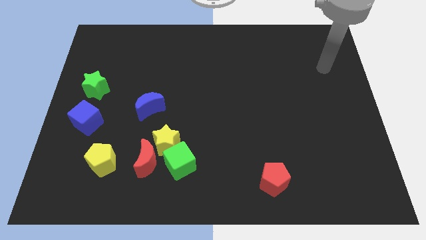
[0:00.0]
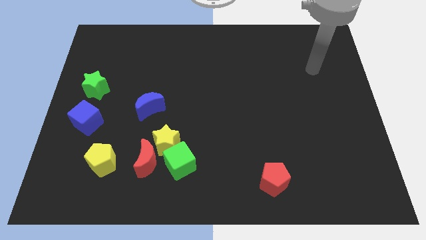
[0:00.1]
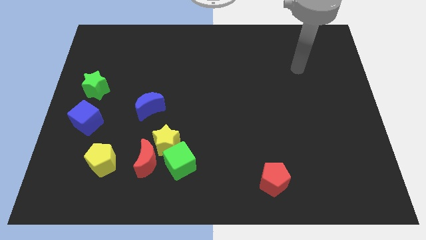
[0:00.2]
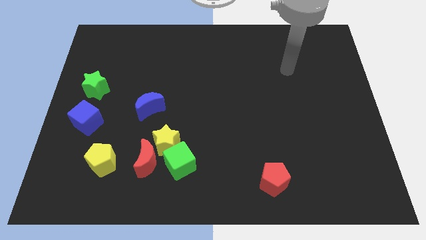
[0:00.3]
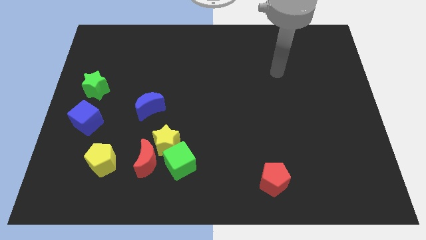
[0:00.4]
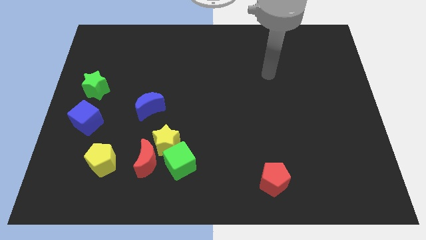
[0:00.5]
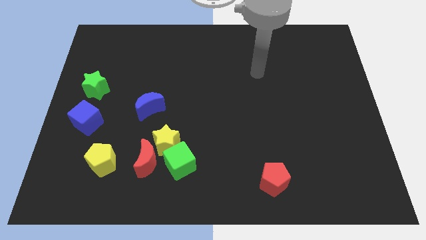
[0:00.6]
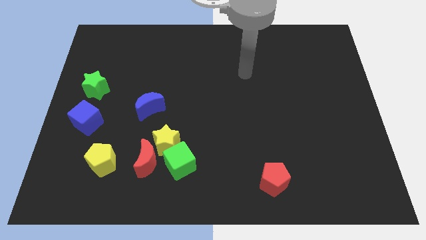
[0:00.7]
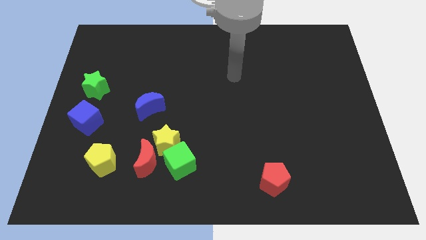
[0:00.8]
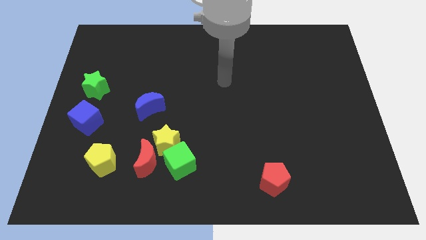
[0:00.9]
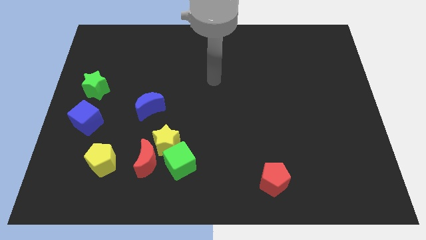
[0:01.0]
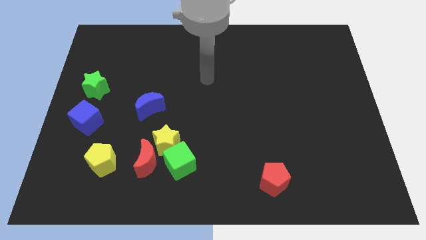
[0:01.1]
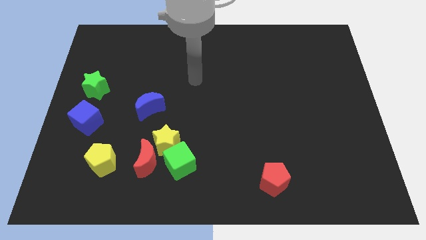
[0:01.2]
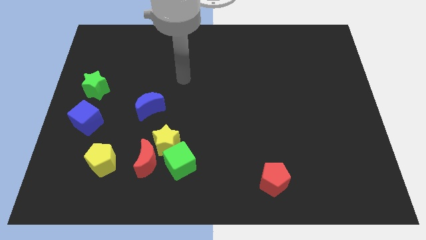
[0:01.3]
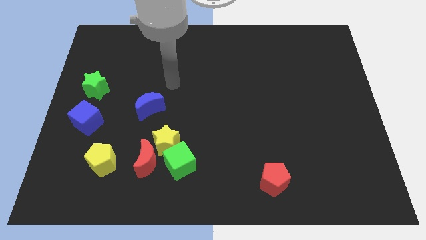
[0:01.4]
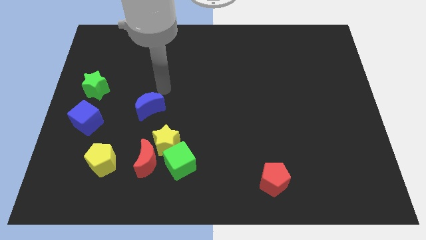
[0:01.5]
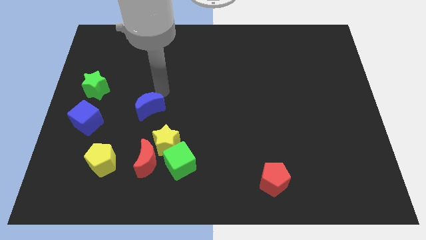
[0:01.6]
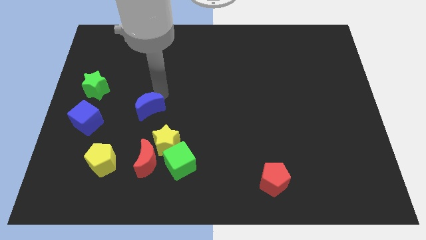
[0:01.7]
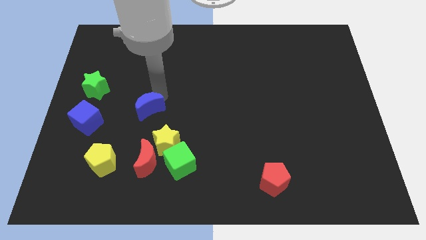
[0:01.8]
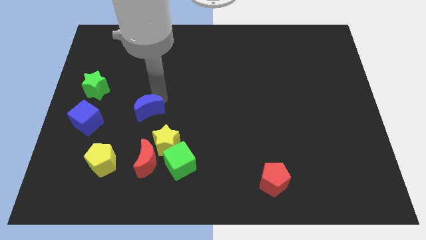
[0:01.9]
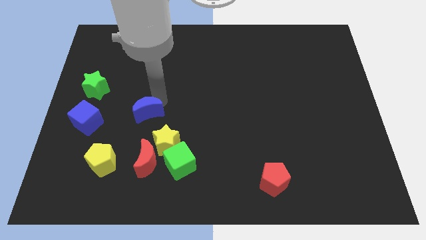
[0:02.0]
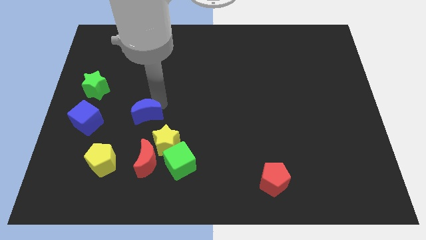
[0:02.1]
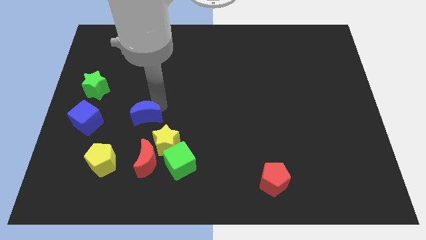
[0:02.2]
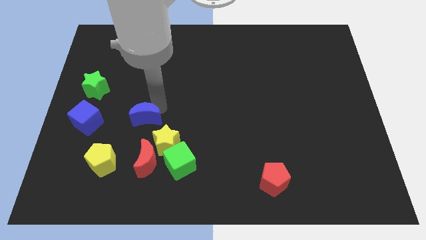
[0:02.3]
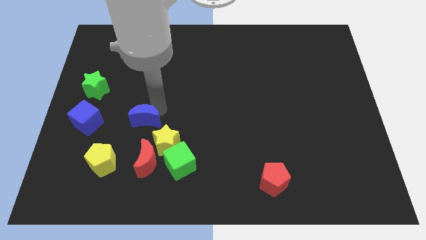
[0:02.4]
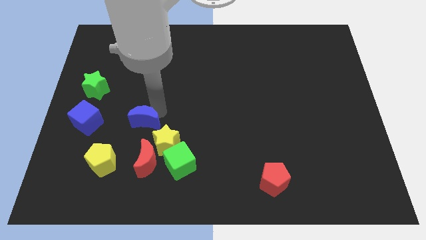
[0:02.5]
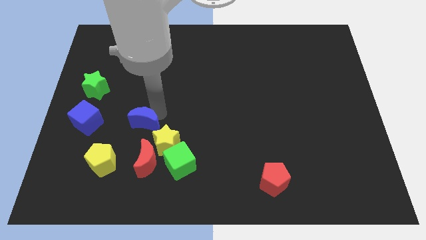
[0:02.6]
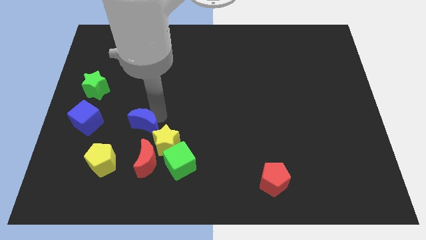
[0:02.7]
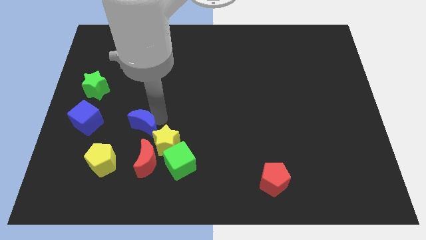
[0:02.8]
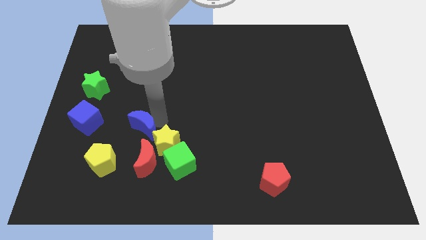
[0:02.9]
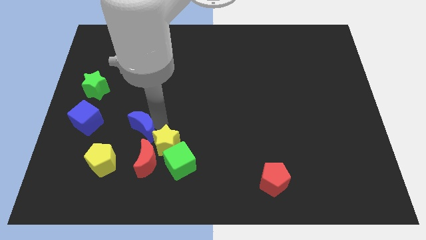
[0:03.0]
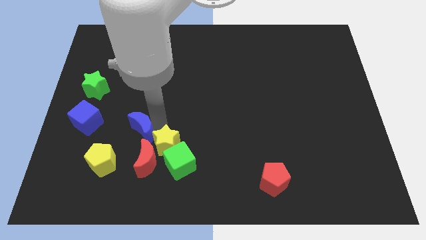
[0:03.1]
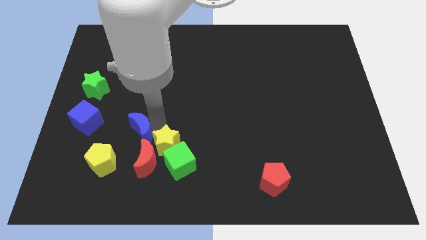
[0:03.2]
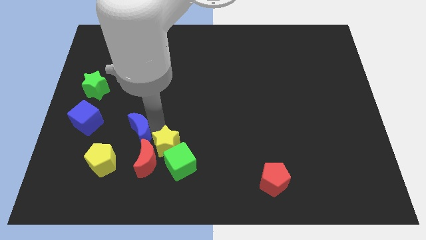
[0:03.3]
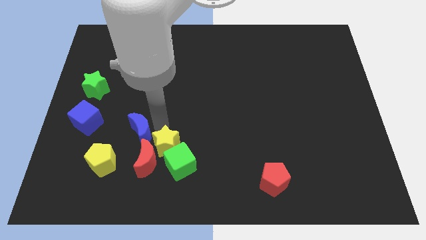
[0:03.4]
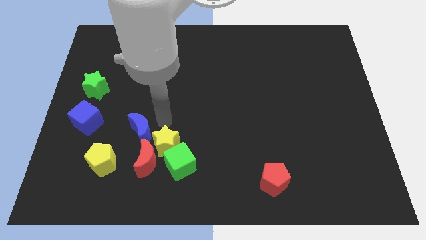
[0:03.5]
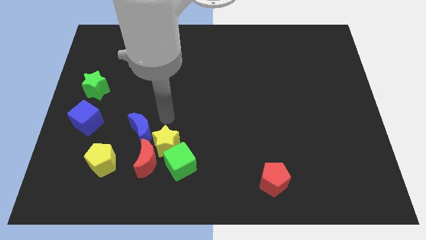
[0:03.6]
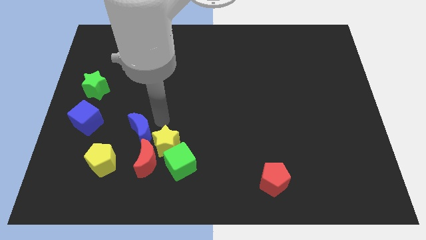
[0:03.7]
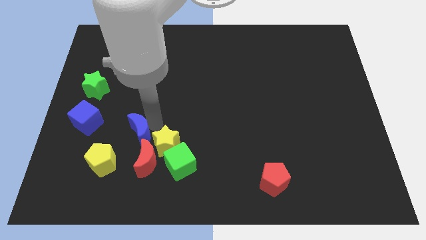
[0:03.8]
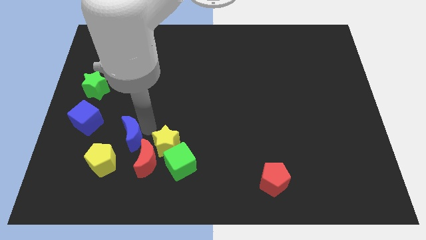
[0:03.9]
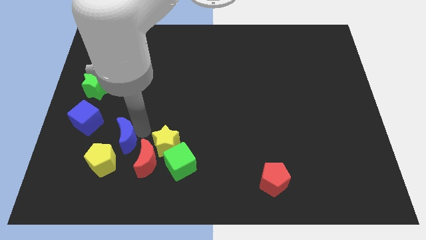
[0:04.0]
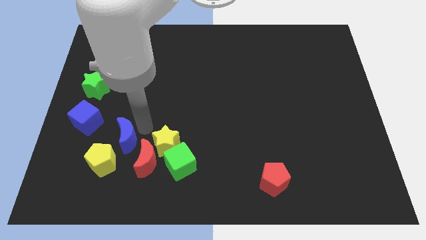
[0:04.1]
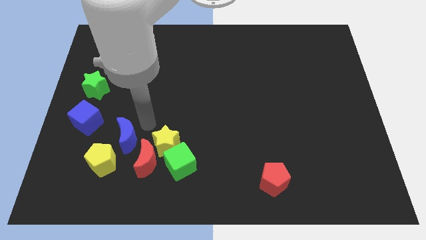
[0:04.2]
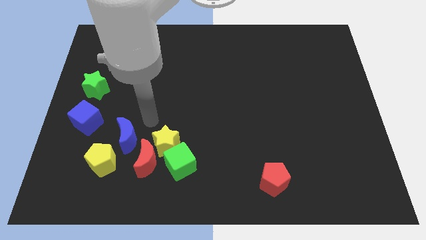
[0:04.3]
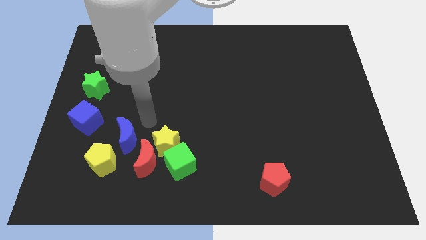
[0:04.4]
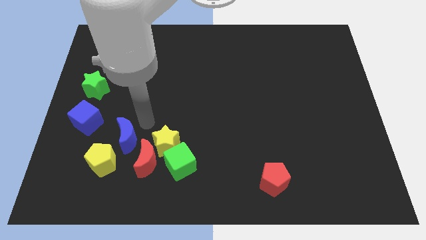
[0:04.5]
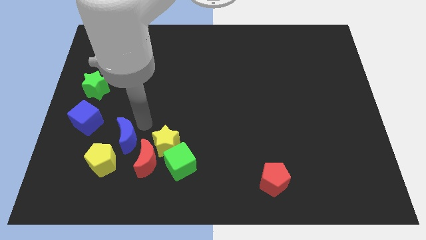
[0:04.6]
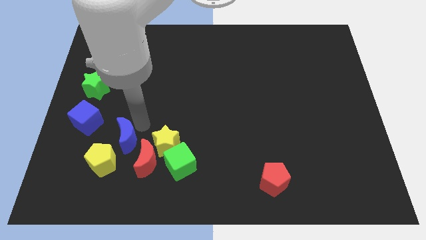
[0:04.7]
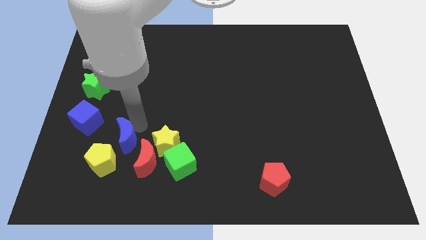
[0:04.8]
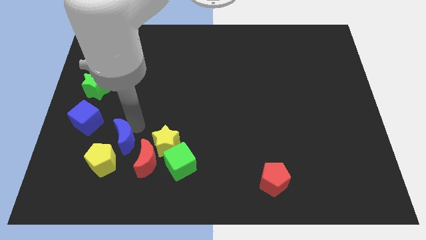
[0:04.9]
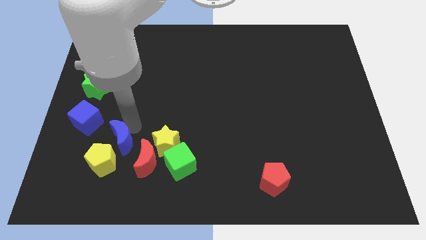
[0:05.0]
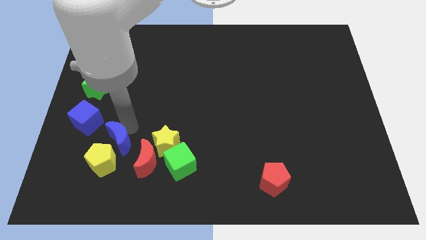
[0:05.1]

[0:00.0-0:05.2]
move the blue moon towards the yellow pentagon
